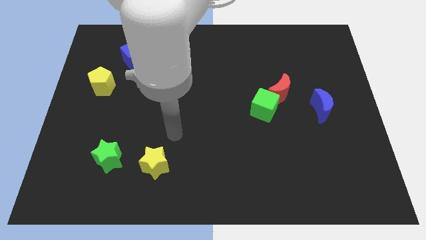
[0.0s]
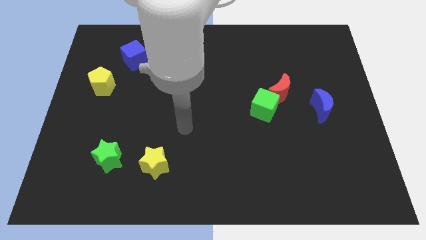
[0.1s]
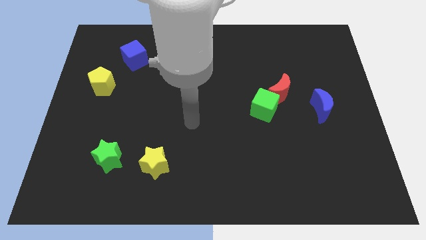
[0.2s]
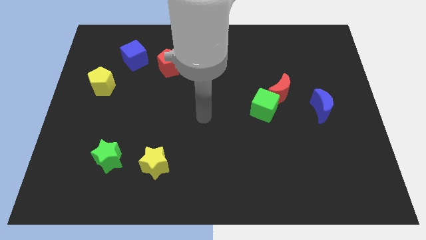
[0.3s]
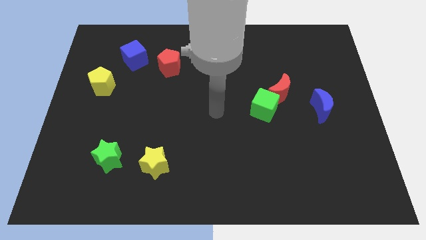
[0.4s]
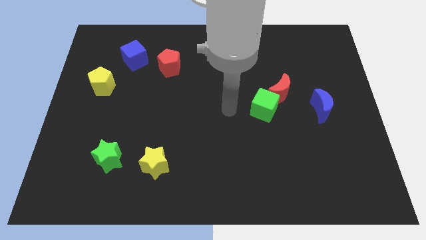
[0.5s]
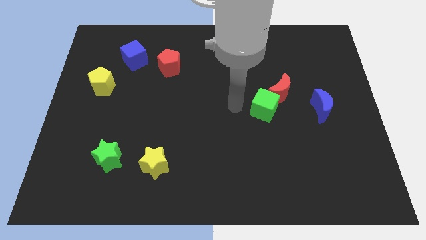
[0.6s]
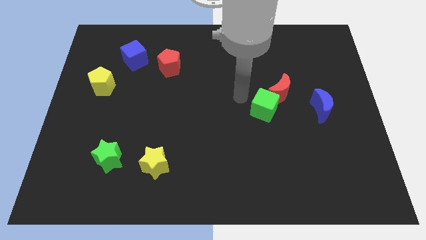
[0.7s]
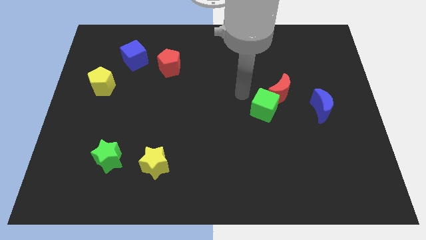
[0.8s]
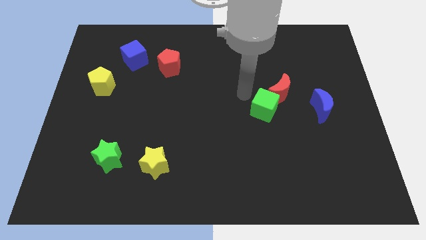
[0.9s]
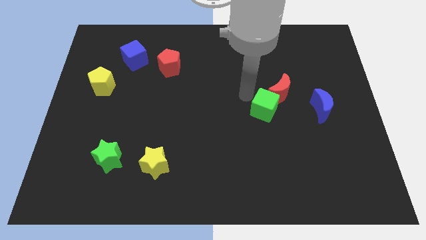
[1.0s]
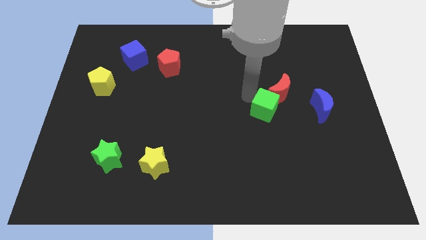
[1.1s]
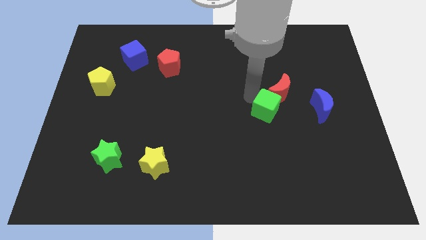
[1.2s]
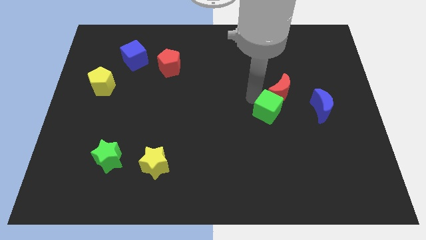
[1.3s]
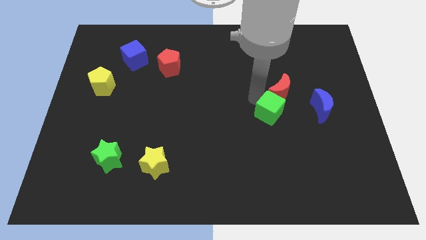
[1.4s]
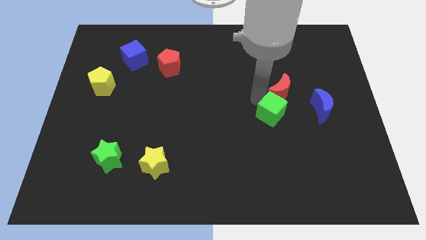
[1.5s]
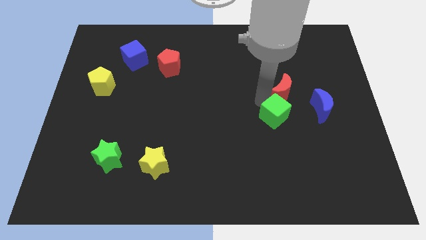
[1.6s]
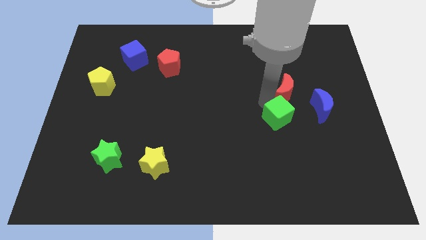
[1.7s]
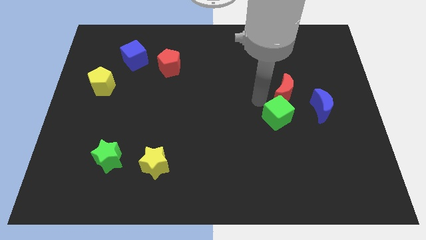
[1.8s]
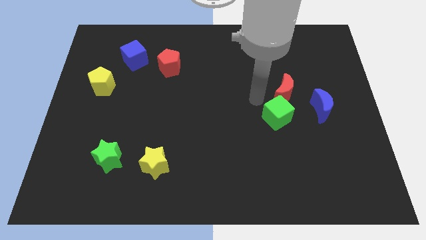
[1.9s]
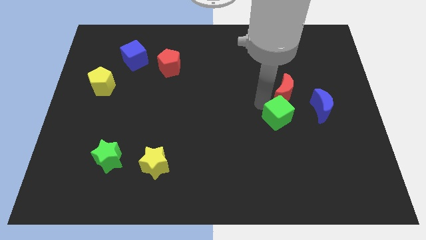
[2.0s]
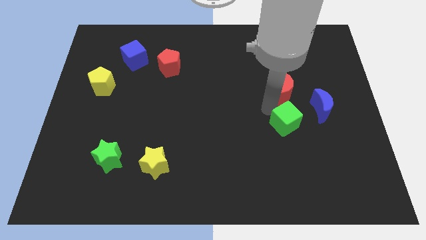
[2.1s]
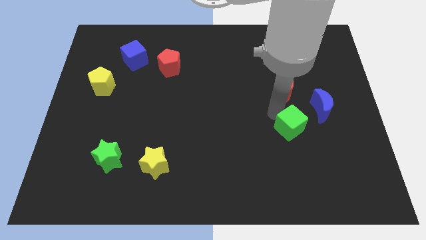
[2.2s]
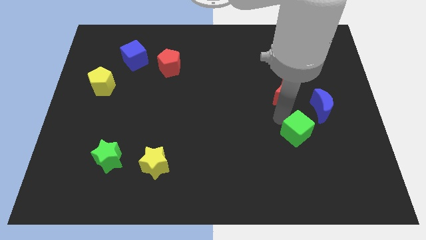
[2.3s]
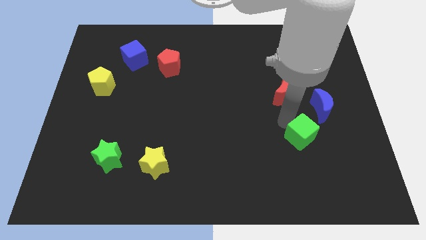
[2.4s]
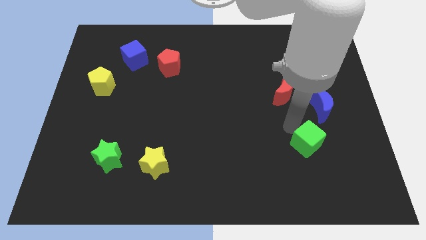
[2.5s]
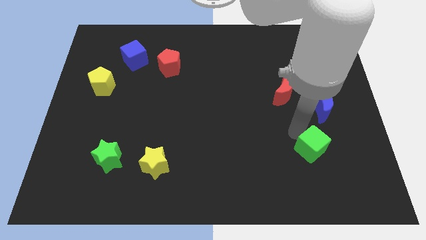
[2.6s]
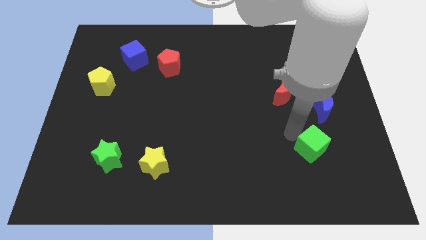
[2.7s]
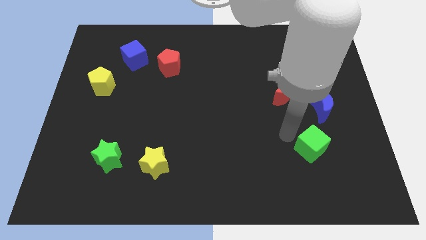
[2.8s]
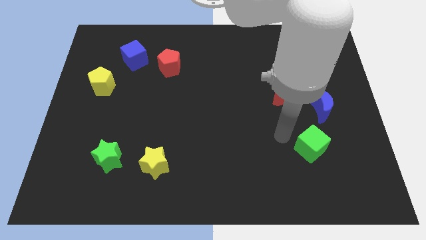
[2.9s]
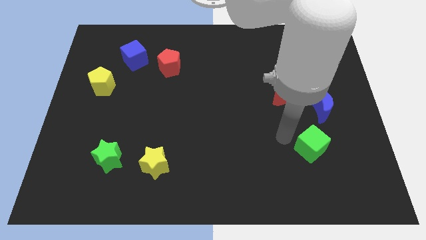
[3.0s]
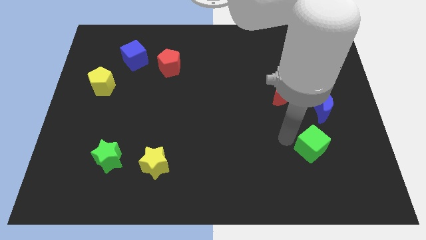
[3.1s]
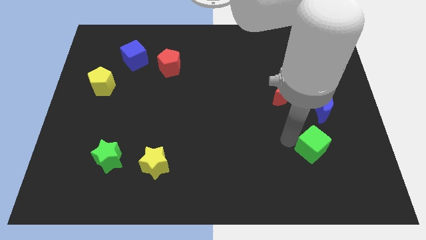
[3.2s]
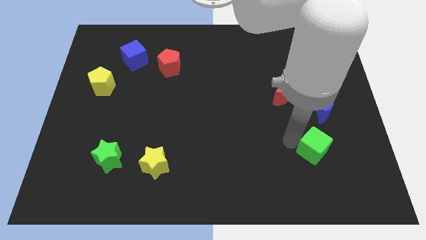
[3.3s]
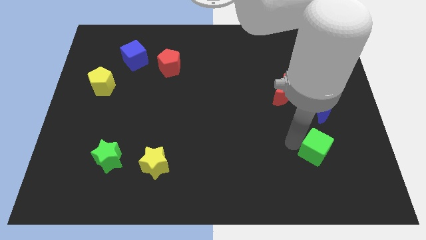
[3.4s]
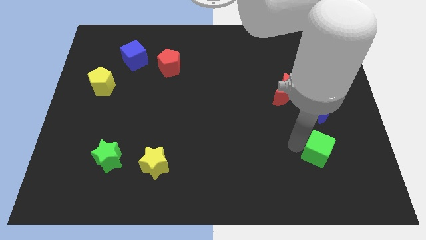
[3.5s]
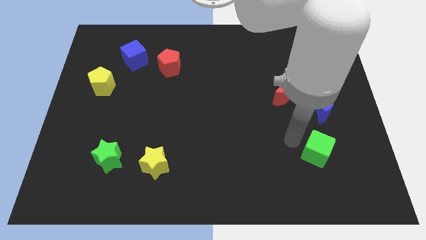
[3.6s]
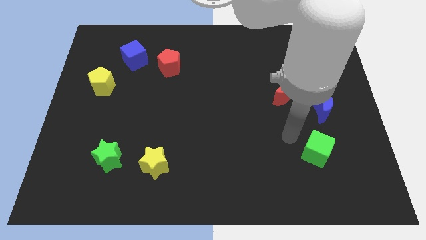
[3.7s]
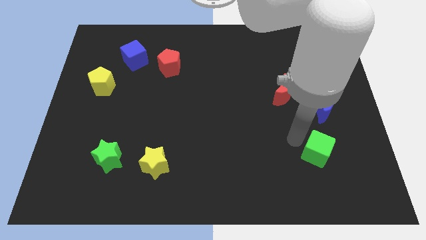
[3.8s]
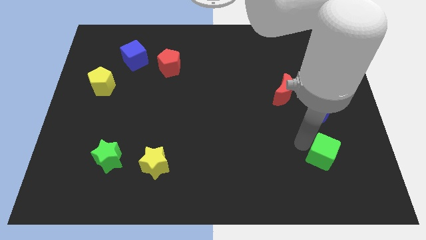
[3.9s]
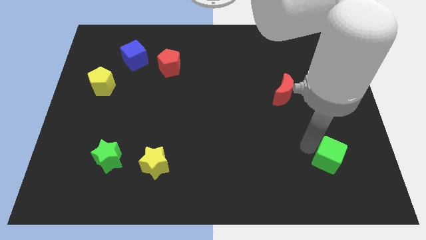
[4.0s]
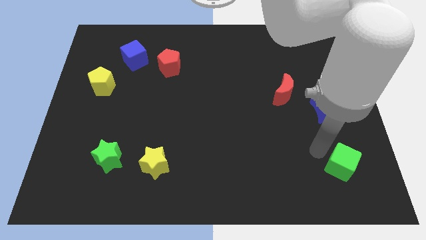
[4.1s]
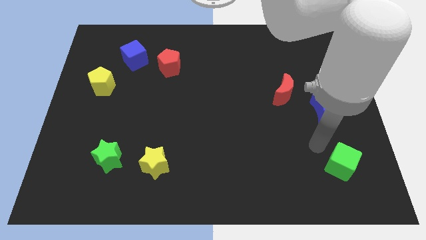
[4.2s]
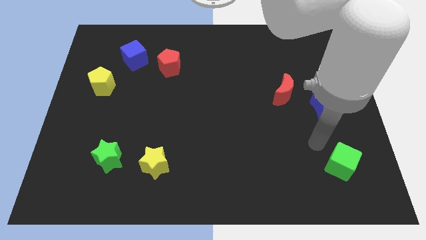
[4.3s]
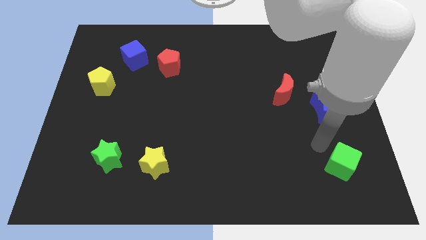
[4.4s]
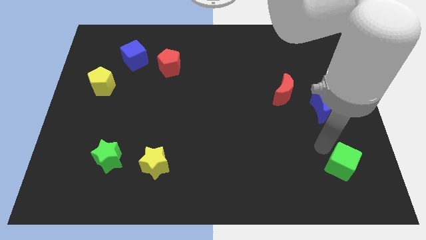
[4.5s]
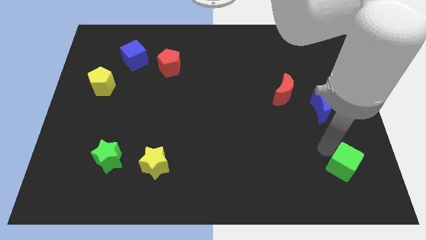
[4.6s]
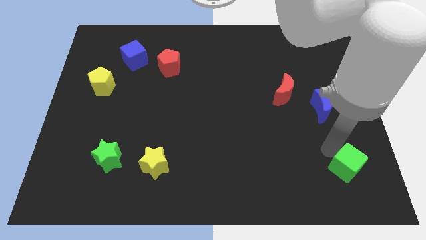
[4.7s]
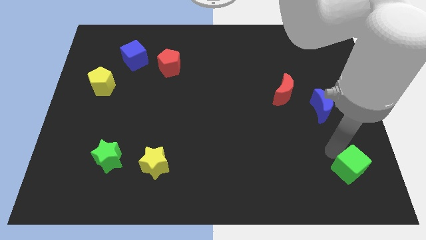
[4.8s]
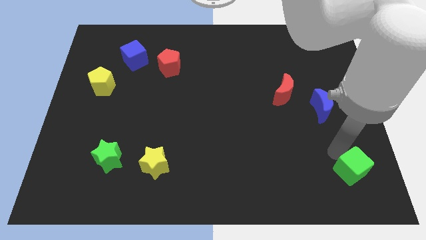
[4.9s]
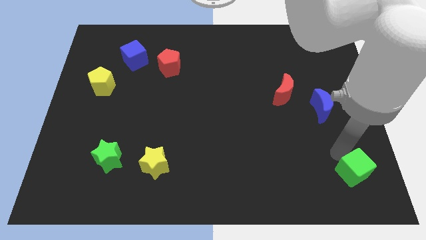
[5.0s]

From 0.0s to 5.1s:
put the green cube to the lower right corner

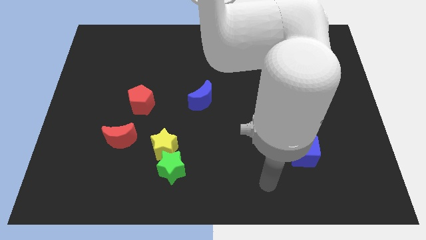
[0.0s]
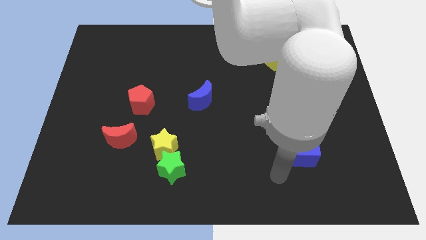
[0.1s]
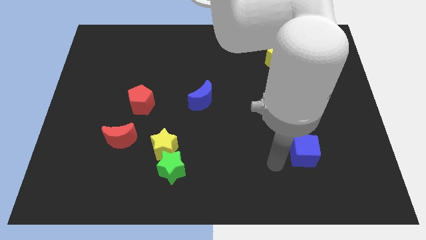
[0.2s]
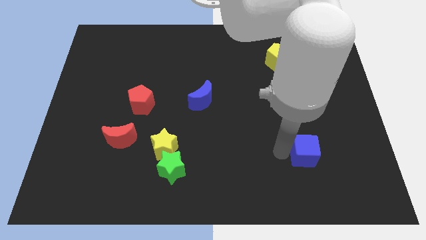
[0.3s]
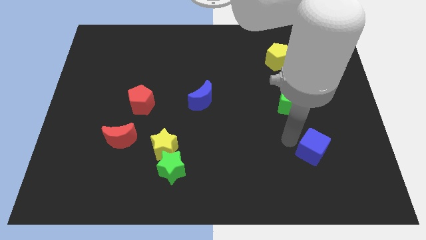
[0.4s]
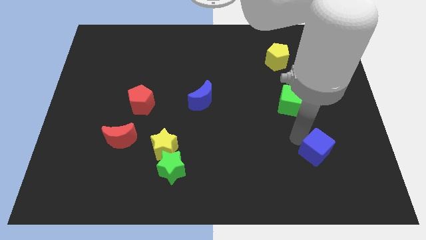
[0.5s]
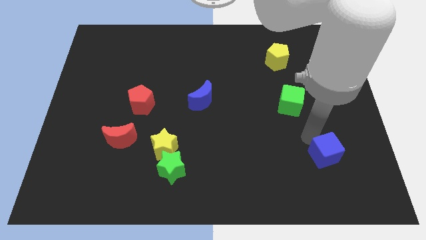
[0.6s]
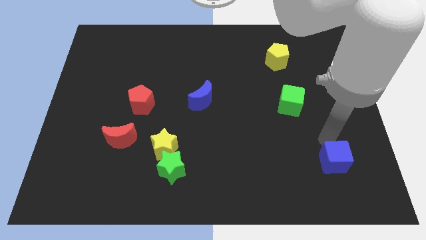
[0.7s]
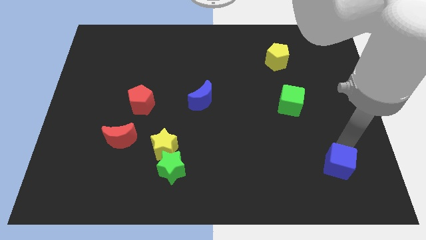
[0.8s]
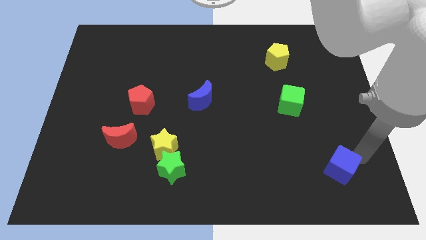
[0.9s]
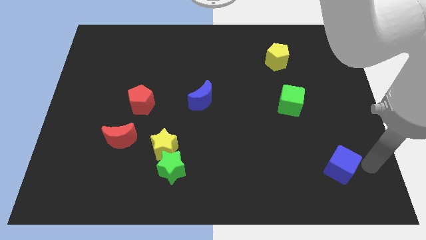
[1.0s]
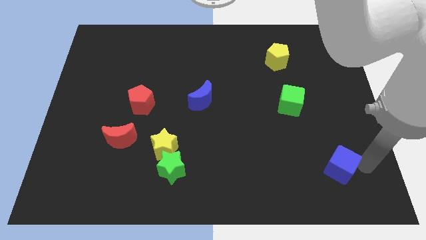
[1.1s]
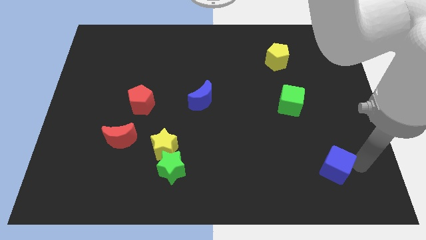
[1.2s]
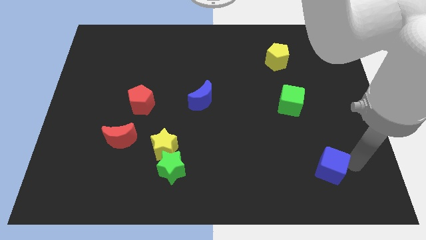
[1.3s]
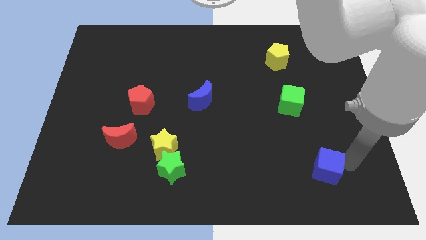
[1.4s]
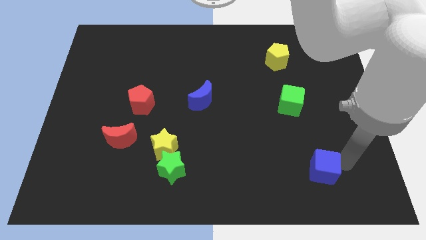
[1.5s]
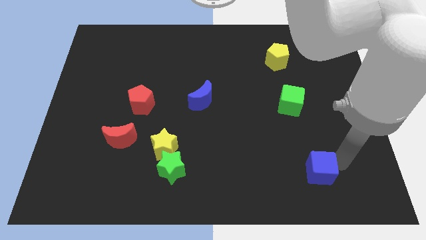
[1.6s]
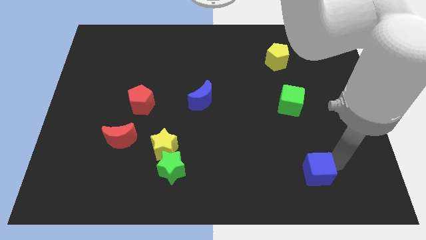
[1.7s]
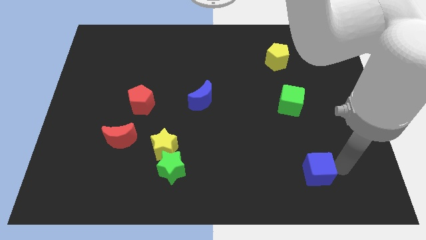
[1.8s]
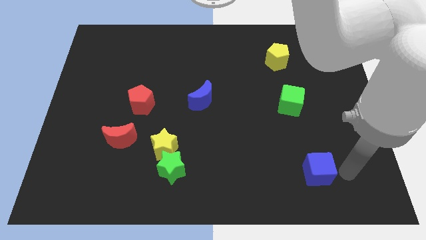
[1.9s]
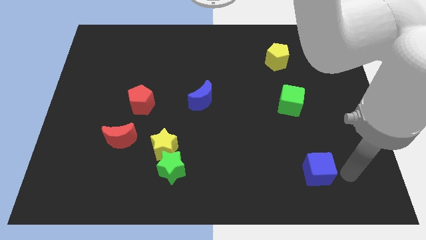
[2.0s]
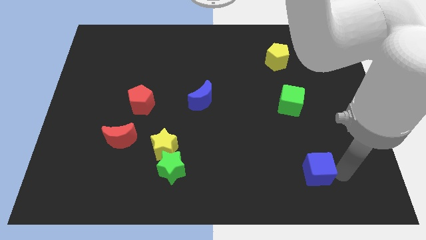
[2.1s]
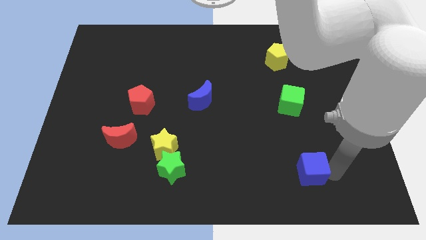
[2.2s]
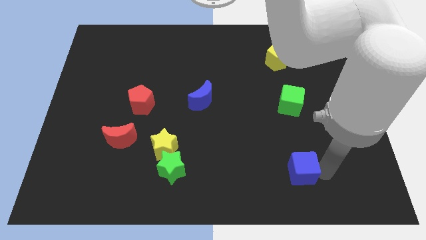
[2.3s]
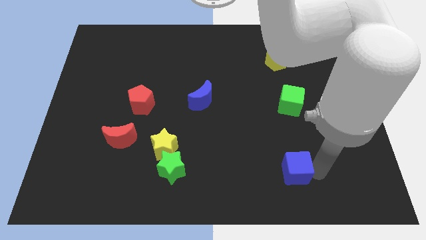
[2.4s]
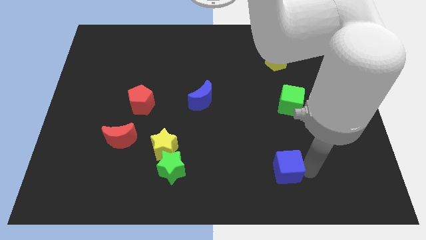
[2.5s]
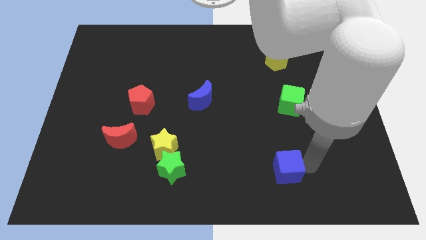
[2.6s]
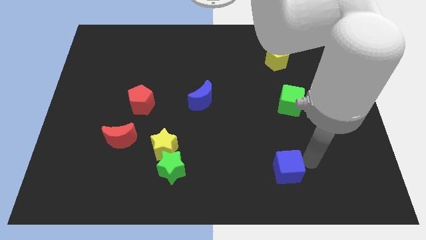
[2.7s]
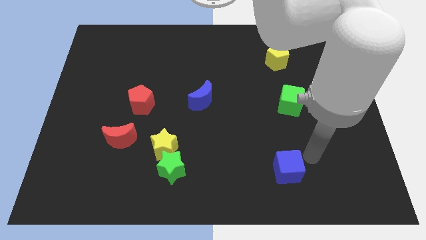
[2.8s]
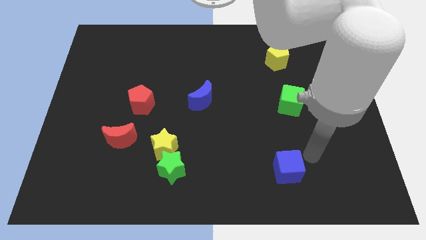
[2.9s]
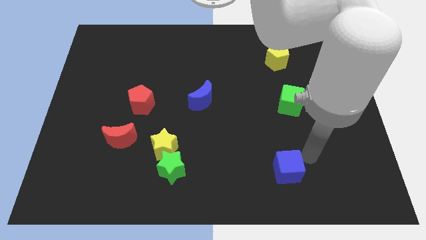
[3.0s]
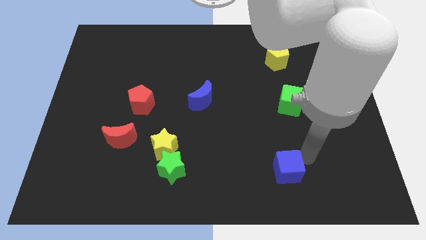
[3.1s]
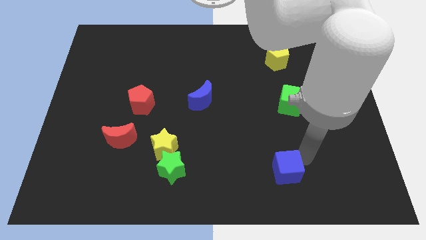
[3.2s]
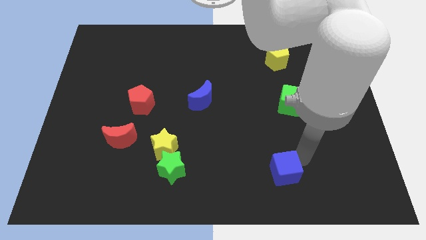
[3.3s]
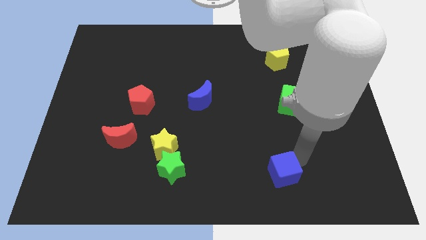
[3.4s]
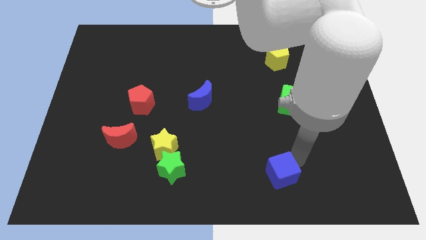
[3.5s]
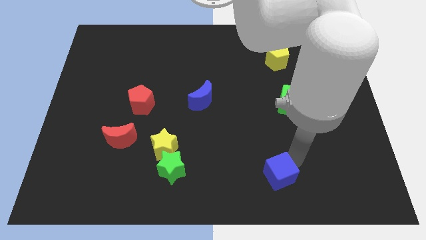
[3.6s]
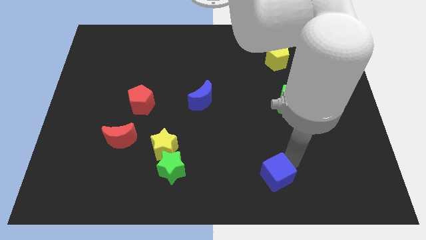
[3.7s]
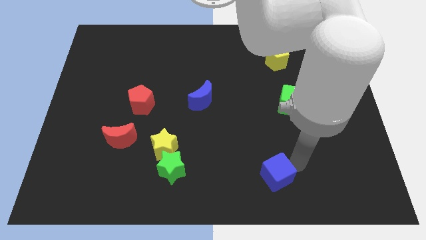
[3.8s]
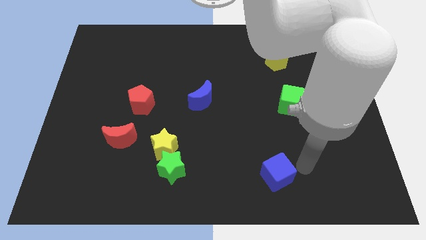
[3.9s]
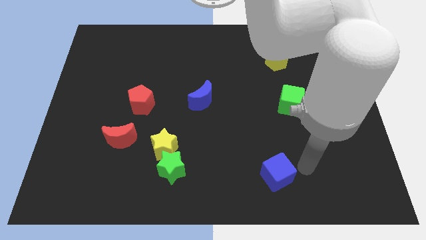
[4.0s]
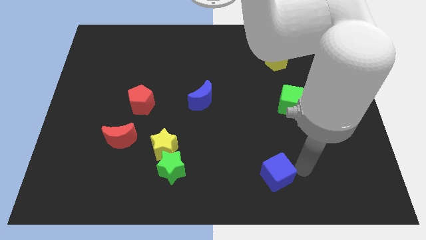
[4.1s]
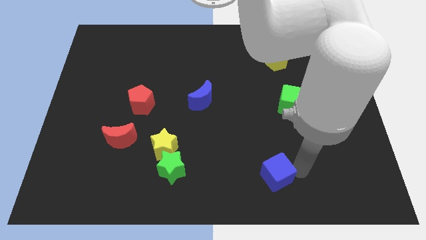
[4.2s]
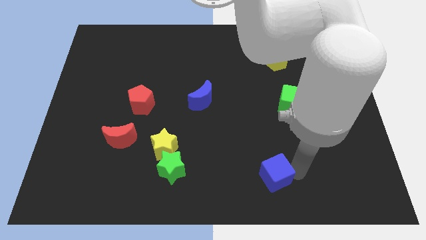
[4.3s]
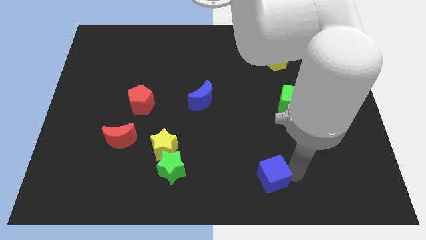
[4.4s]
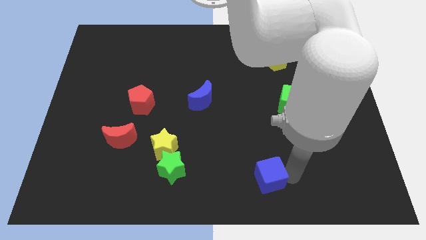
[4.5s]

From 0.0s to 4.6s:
slide the blue cube to the bottom side
